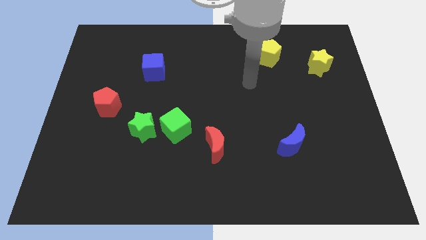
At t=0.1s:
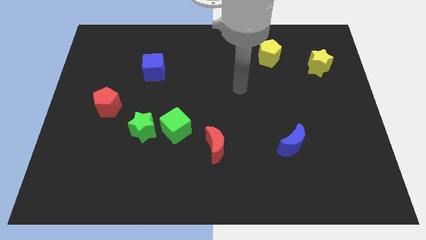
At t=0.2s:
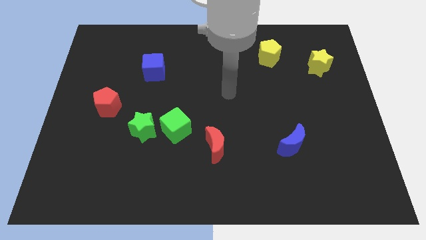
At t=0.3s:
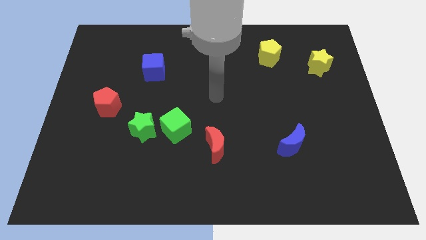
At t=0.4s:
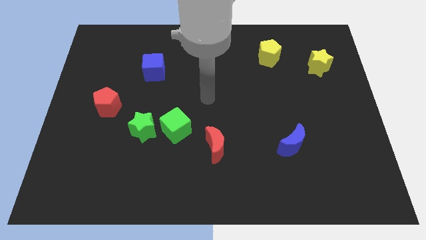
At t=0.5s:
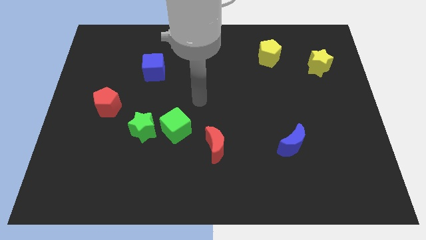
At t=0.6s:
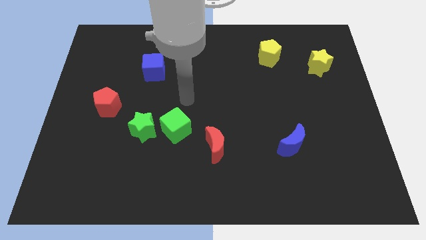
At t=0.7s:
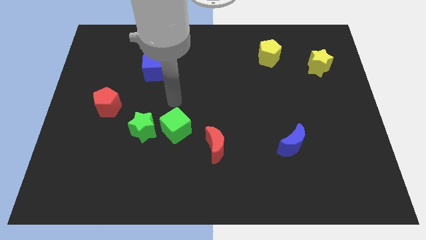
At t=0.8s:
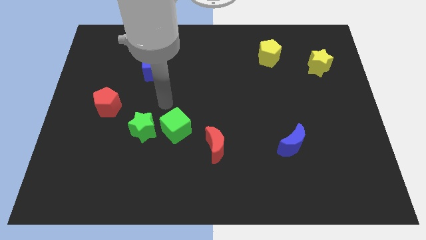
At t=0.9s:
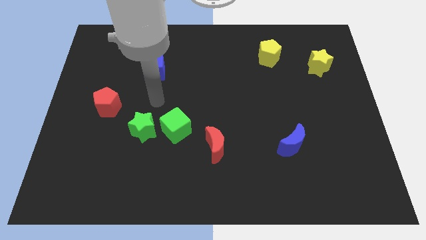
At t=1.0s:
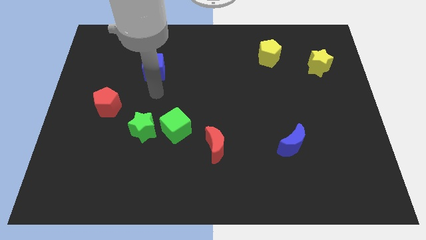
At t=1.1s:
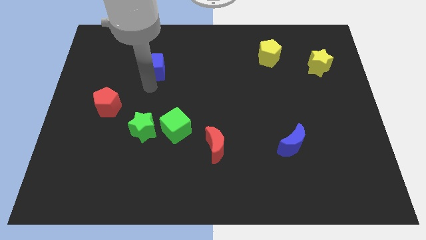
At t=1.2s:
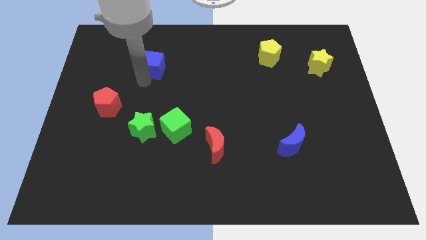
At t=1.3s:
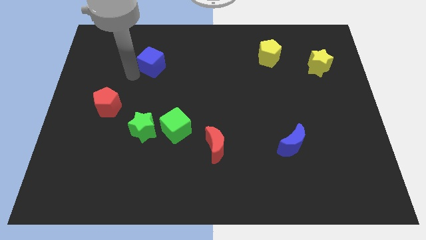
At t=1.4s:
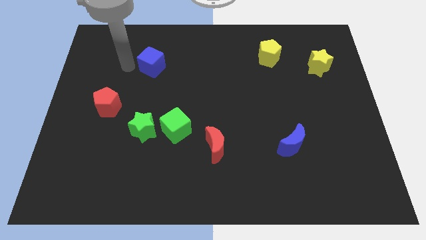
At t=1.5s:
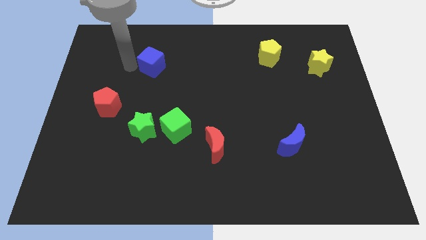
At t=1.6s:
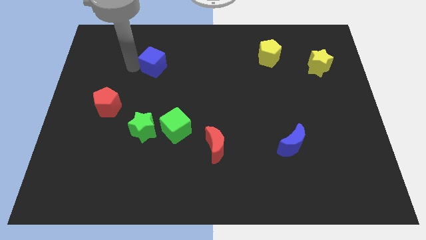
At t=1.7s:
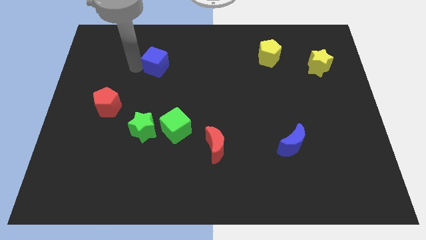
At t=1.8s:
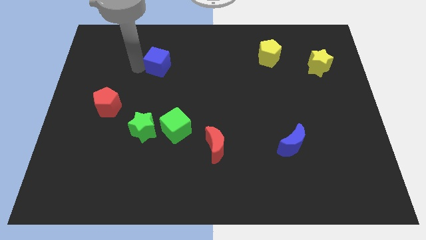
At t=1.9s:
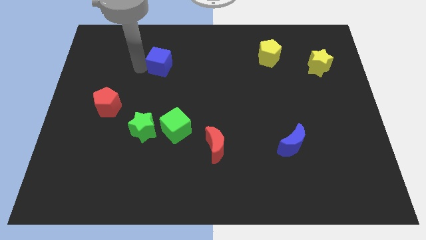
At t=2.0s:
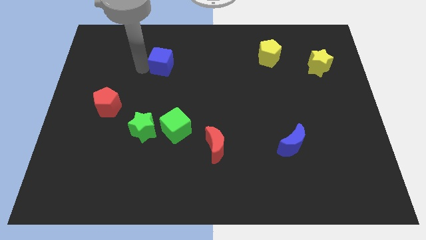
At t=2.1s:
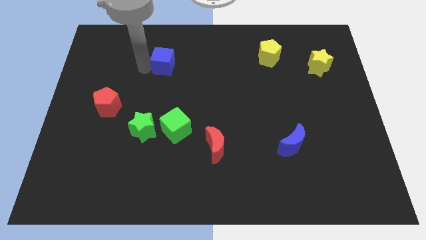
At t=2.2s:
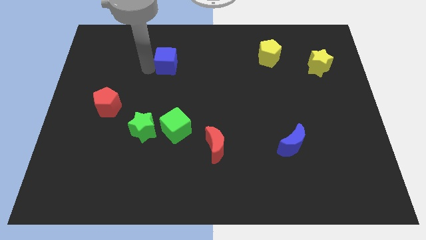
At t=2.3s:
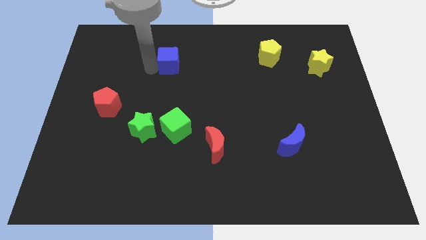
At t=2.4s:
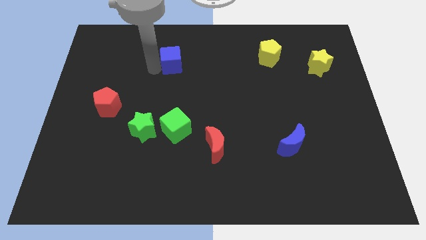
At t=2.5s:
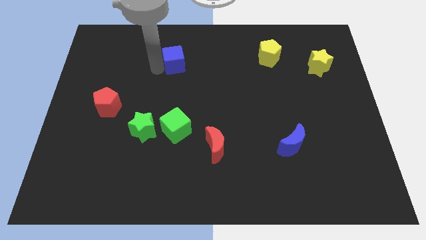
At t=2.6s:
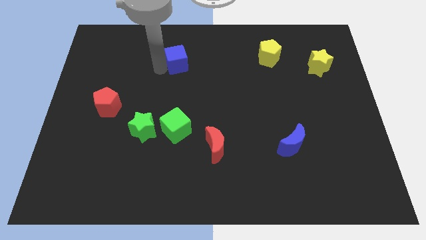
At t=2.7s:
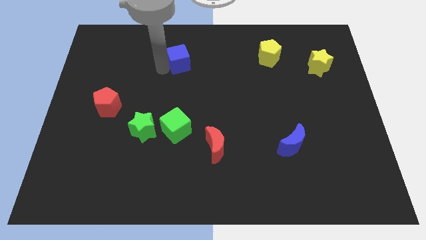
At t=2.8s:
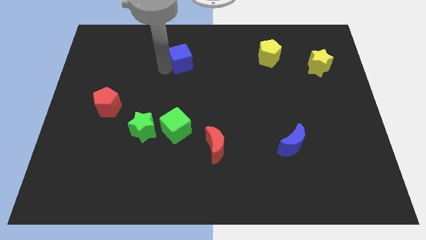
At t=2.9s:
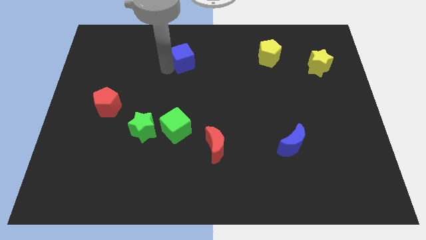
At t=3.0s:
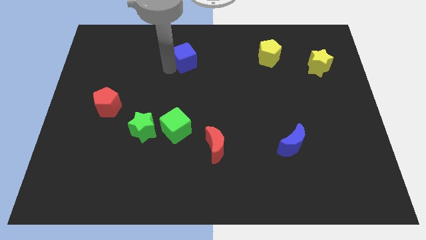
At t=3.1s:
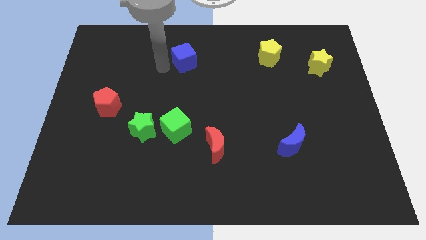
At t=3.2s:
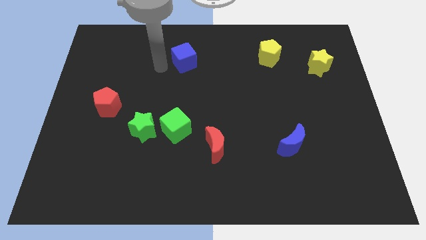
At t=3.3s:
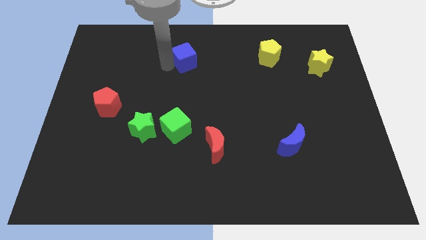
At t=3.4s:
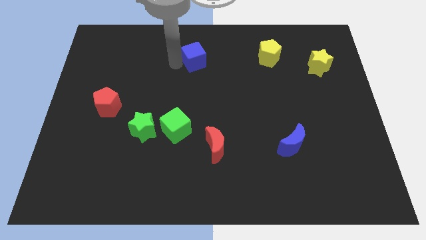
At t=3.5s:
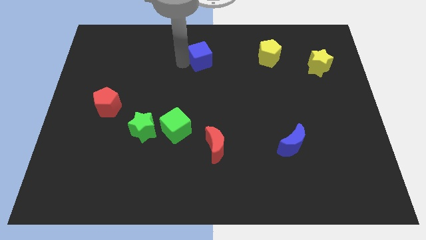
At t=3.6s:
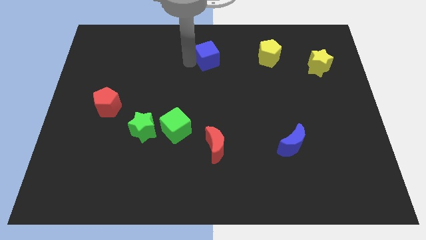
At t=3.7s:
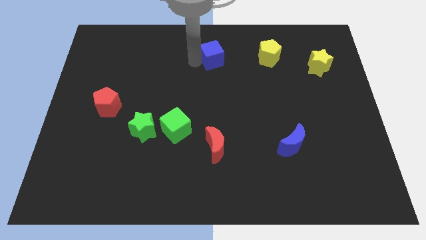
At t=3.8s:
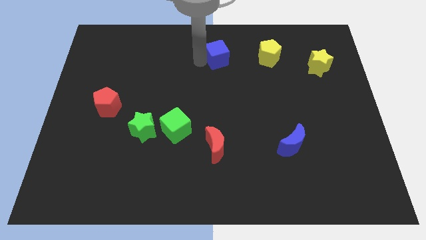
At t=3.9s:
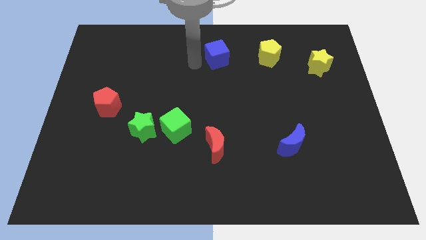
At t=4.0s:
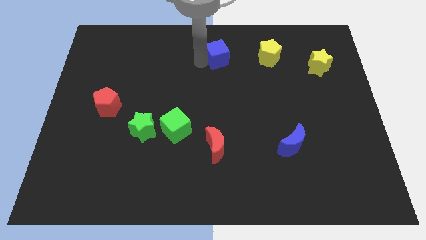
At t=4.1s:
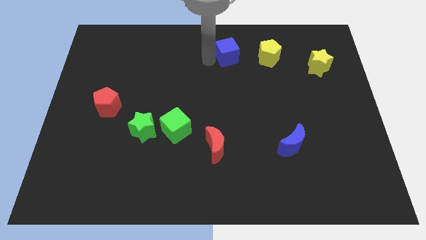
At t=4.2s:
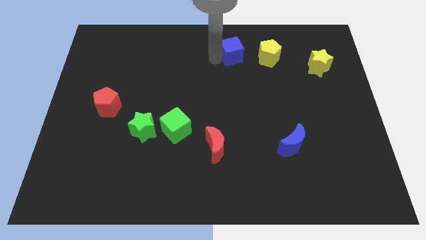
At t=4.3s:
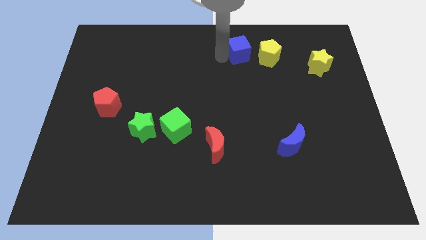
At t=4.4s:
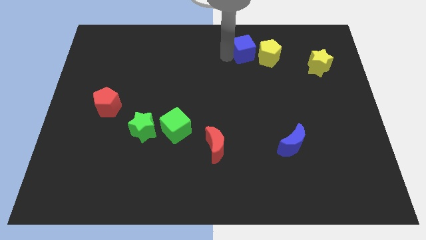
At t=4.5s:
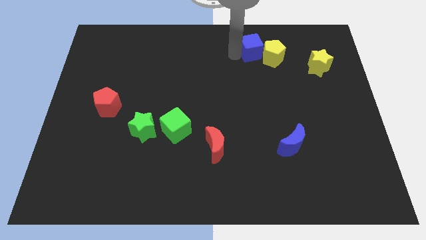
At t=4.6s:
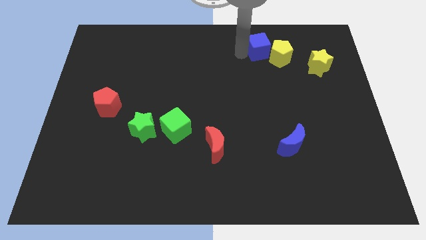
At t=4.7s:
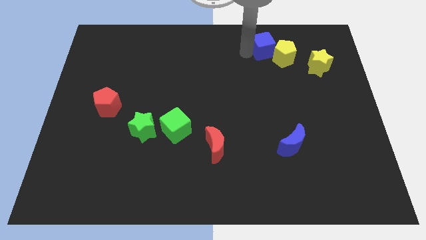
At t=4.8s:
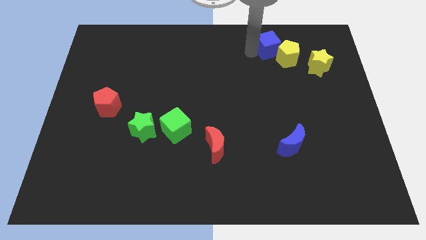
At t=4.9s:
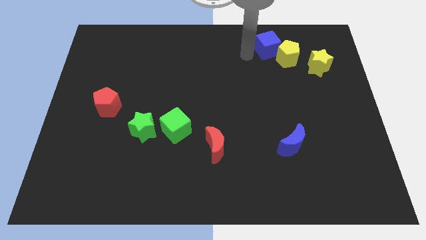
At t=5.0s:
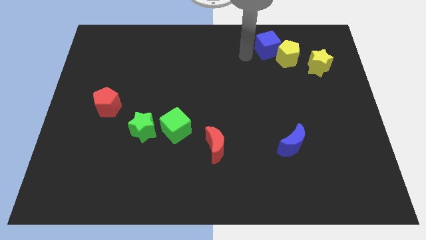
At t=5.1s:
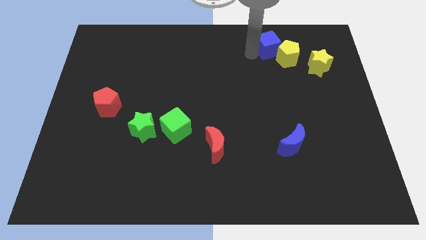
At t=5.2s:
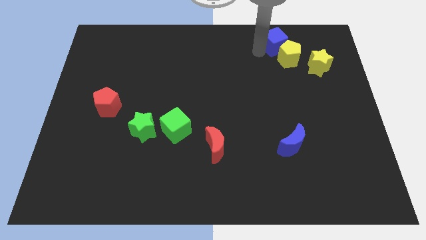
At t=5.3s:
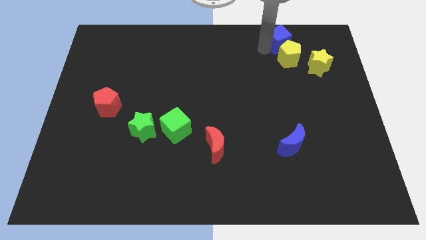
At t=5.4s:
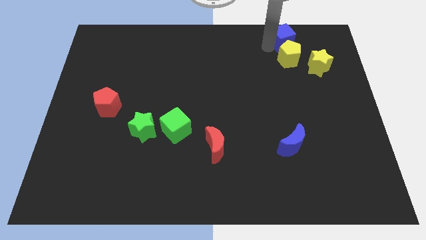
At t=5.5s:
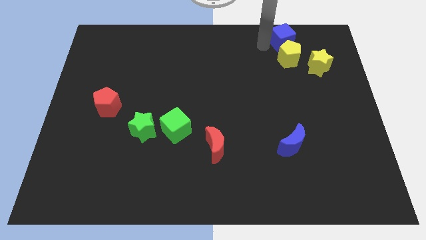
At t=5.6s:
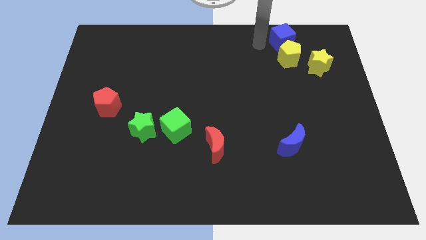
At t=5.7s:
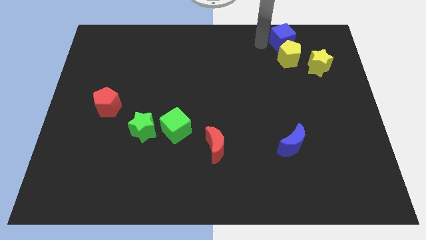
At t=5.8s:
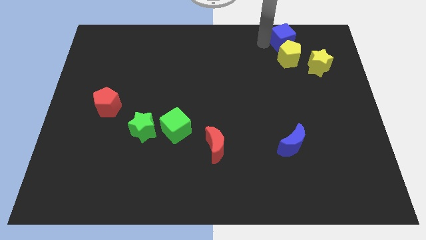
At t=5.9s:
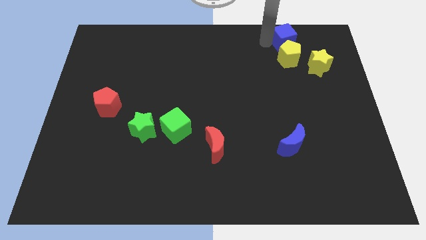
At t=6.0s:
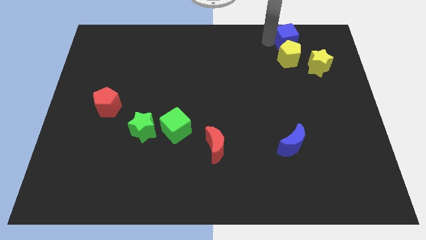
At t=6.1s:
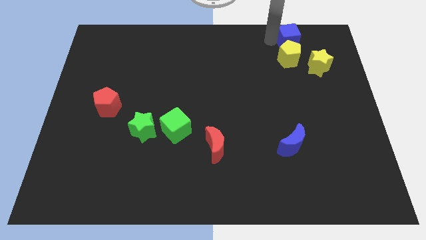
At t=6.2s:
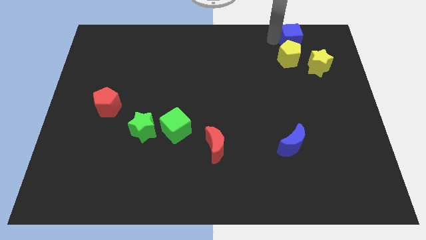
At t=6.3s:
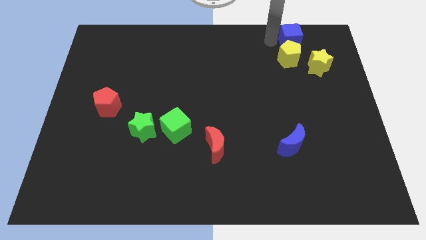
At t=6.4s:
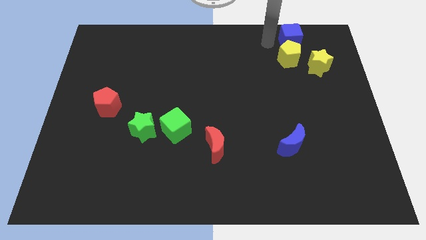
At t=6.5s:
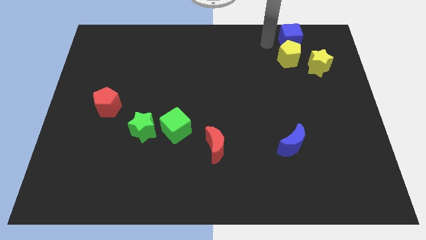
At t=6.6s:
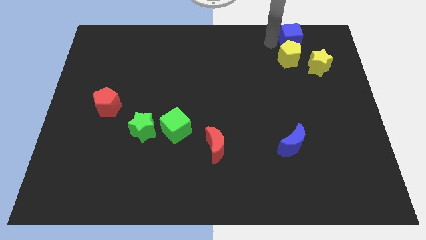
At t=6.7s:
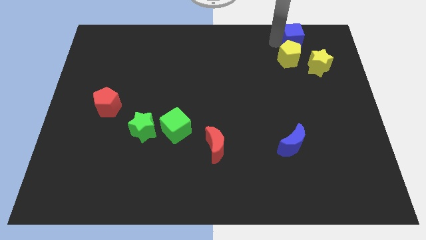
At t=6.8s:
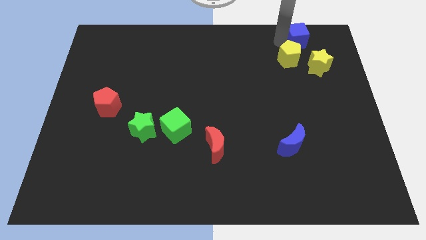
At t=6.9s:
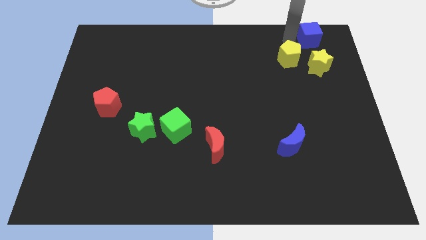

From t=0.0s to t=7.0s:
put the blue cube to the top right of the board
